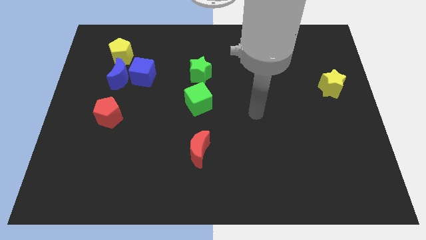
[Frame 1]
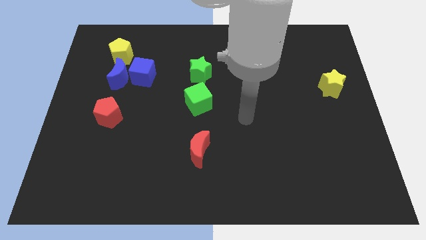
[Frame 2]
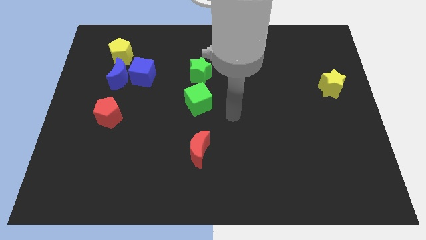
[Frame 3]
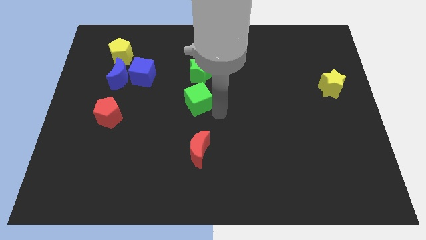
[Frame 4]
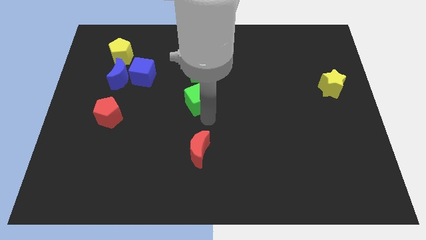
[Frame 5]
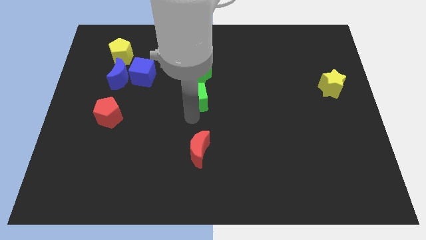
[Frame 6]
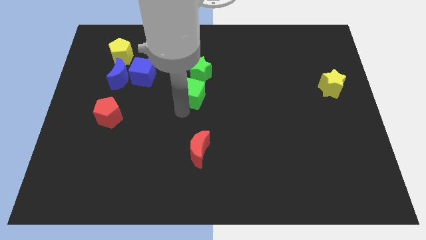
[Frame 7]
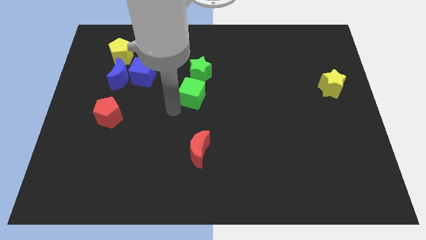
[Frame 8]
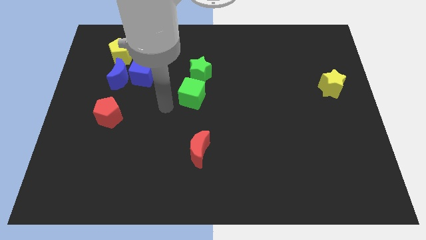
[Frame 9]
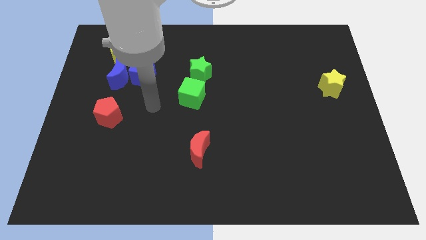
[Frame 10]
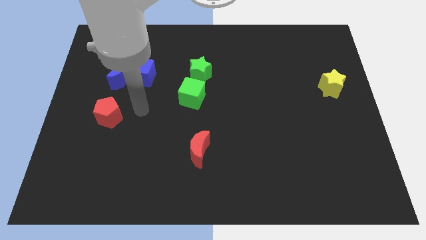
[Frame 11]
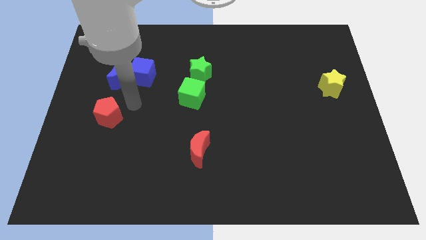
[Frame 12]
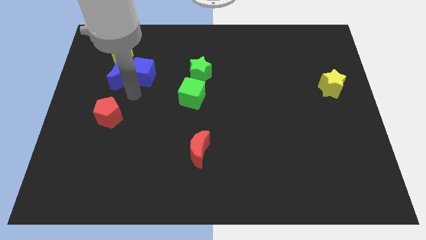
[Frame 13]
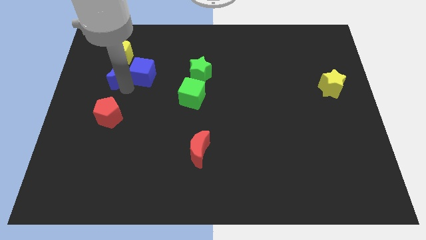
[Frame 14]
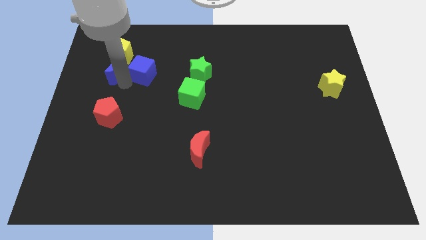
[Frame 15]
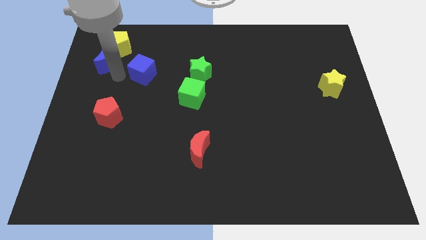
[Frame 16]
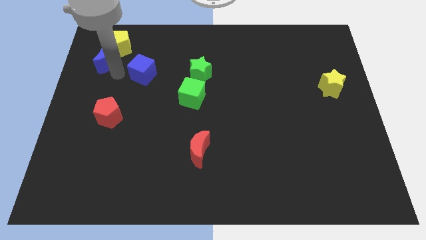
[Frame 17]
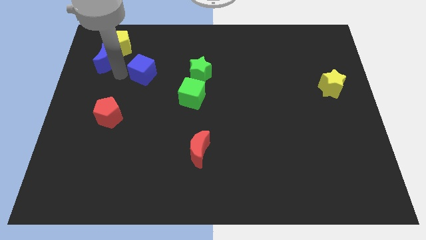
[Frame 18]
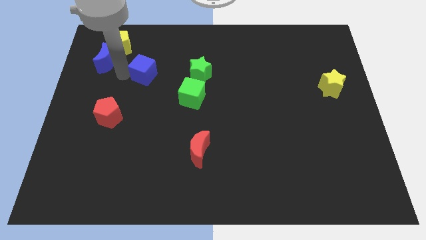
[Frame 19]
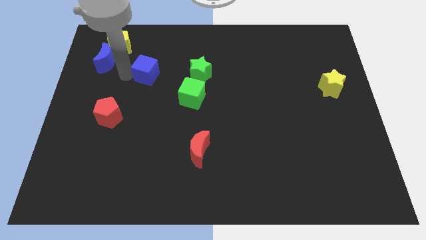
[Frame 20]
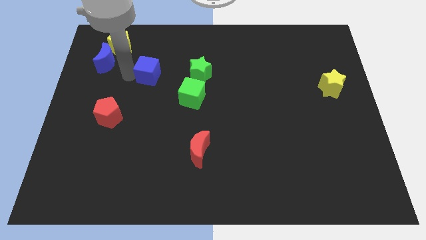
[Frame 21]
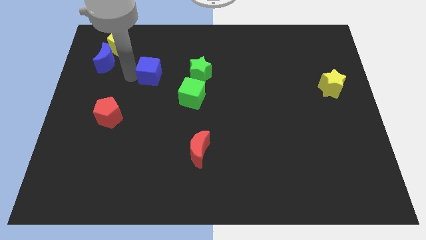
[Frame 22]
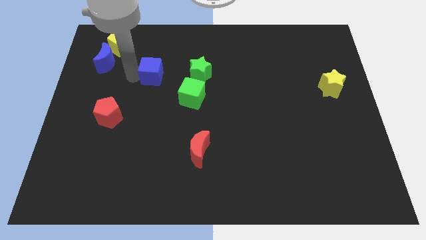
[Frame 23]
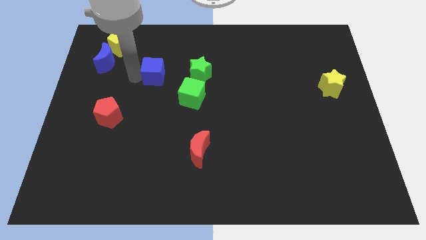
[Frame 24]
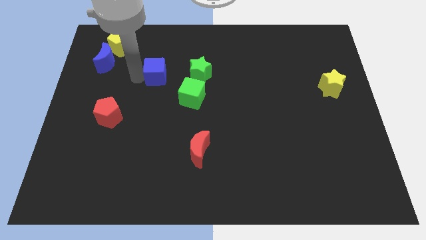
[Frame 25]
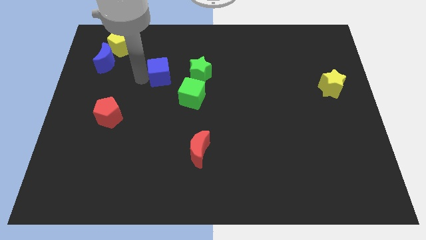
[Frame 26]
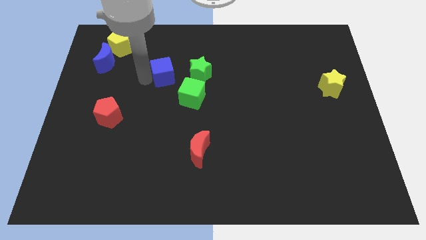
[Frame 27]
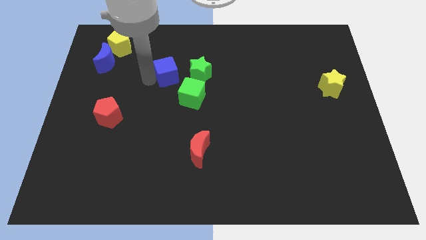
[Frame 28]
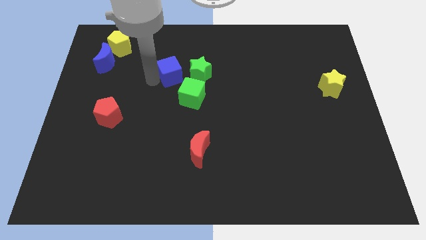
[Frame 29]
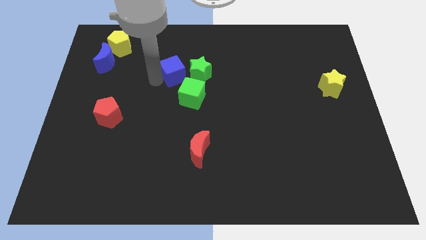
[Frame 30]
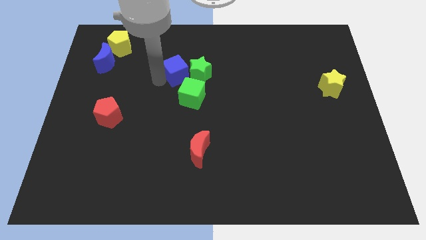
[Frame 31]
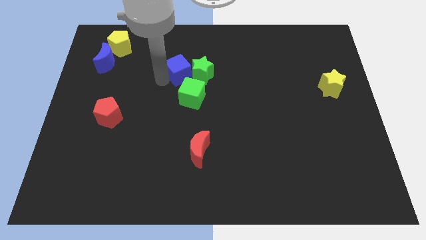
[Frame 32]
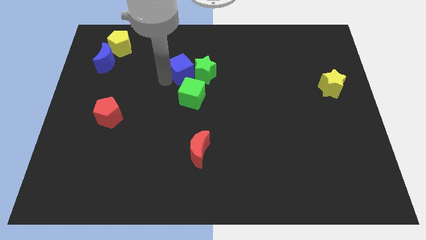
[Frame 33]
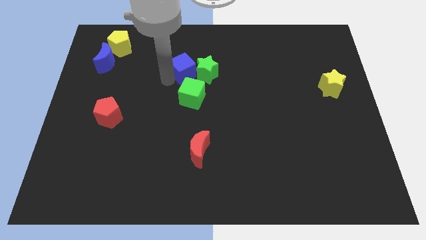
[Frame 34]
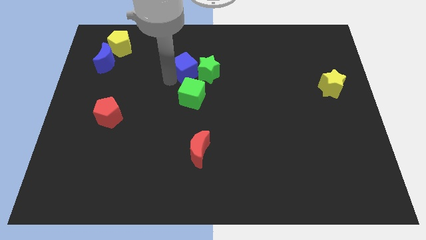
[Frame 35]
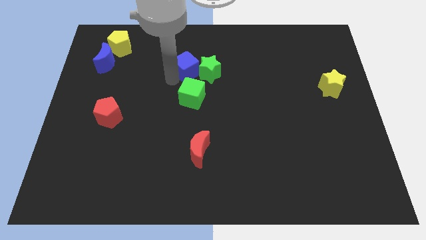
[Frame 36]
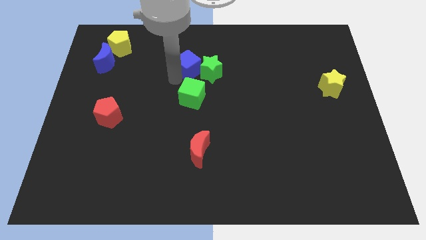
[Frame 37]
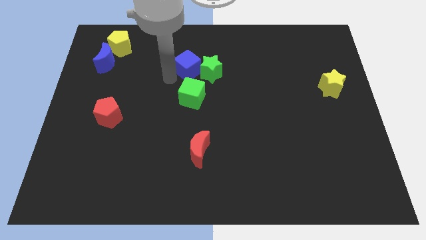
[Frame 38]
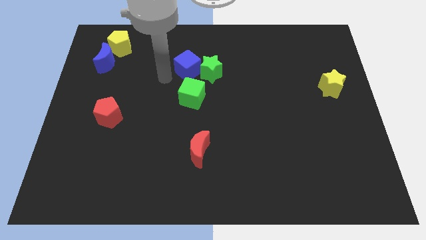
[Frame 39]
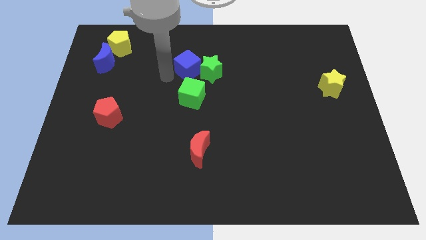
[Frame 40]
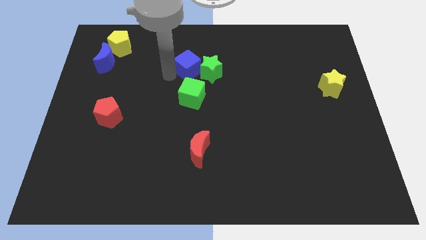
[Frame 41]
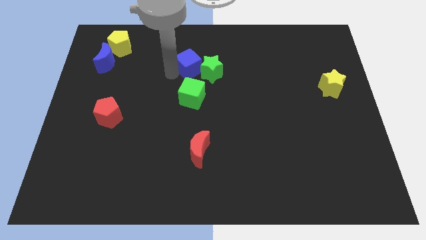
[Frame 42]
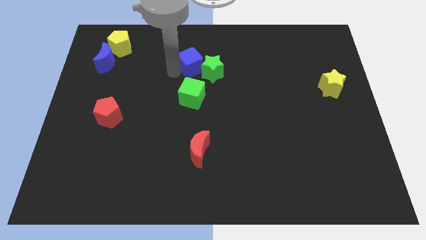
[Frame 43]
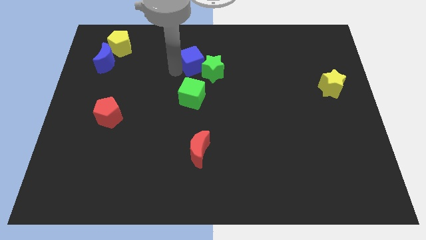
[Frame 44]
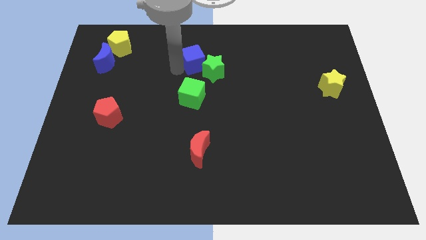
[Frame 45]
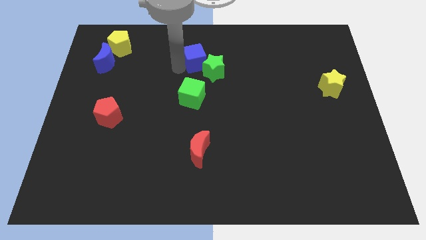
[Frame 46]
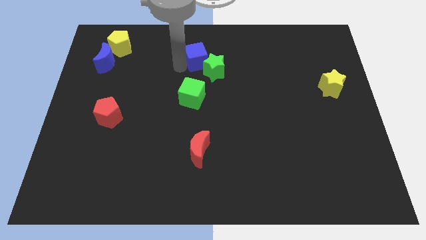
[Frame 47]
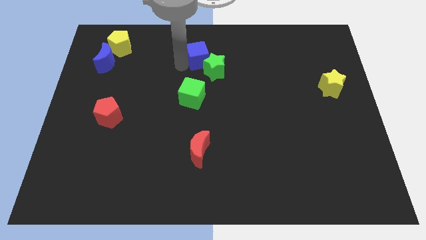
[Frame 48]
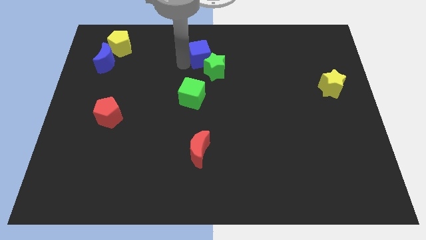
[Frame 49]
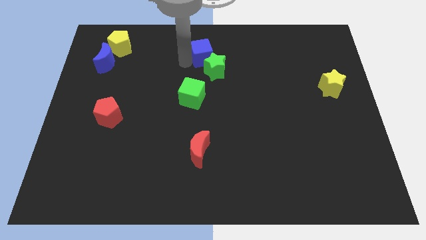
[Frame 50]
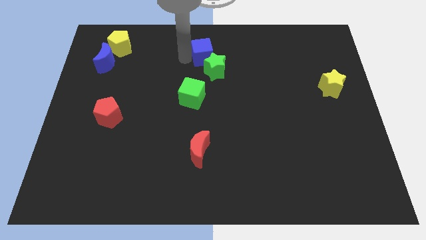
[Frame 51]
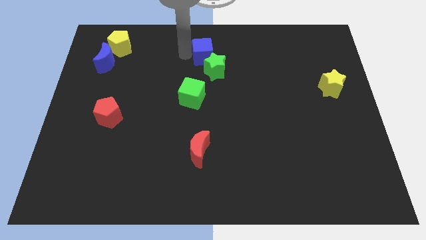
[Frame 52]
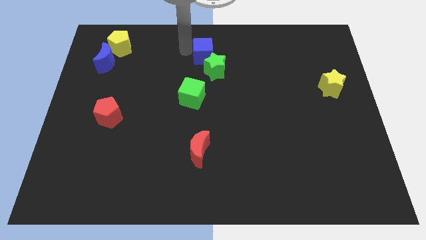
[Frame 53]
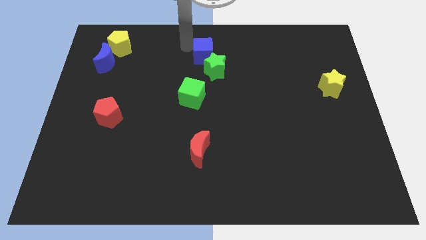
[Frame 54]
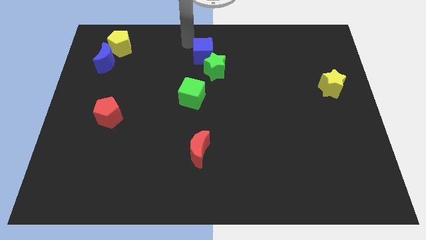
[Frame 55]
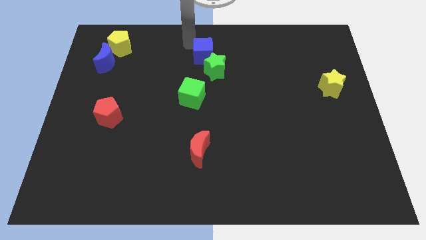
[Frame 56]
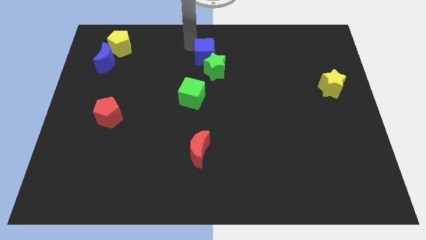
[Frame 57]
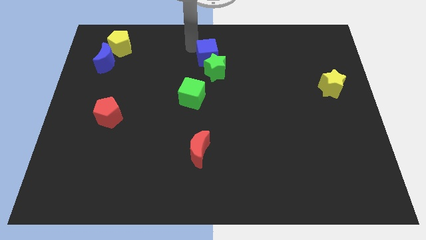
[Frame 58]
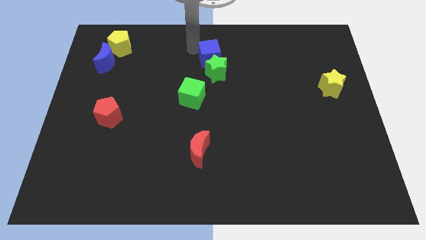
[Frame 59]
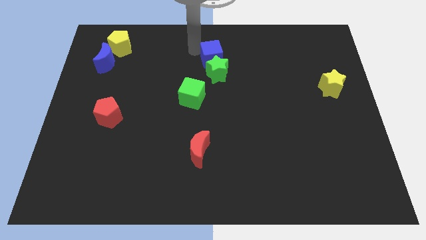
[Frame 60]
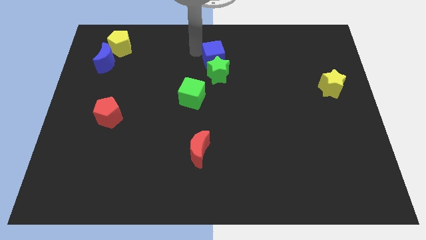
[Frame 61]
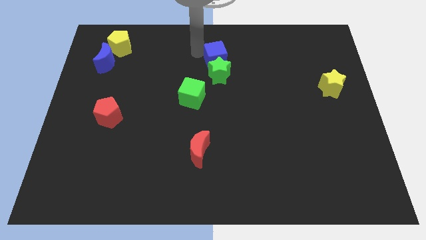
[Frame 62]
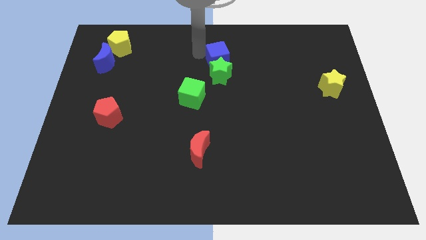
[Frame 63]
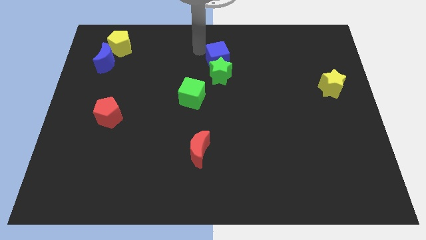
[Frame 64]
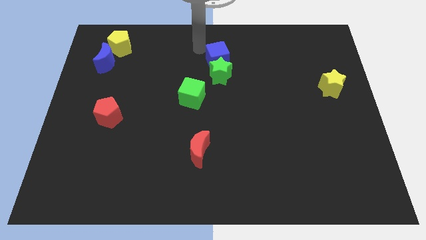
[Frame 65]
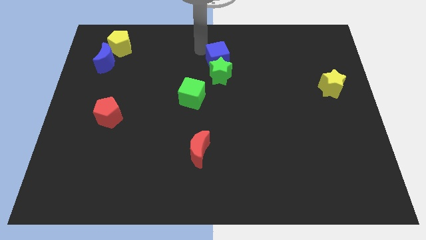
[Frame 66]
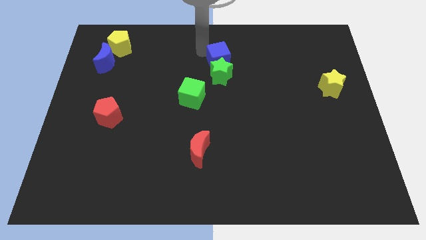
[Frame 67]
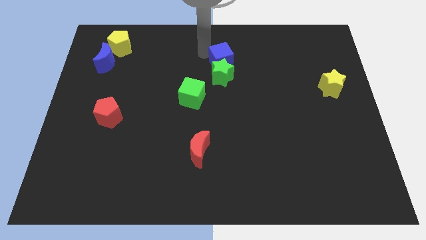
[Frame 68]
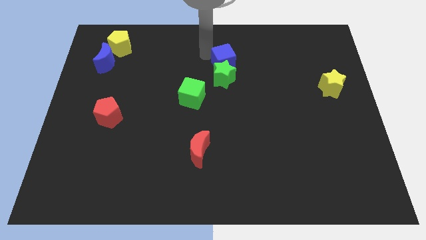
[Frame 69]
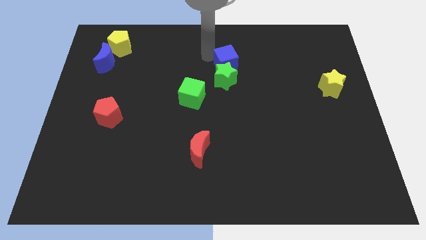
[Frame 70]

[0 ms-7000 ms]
slide the blue cube right

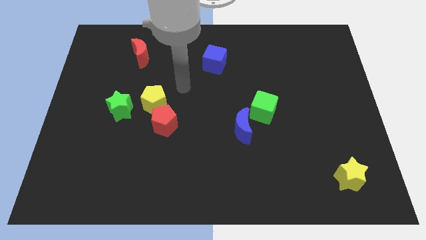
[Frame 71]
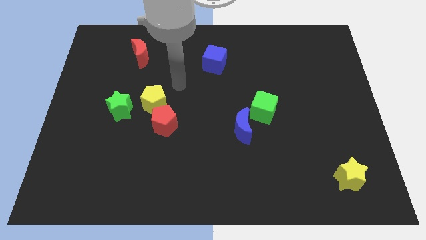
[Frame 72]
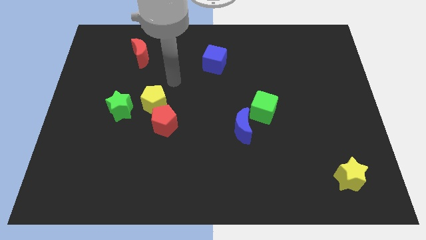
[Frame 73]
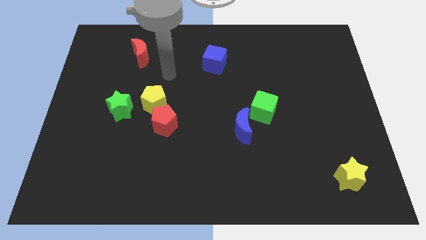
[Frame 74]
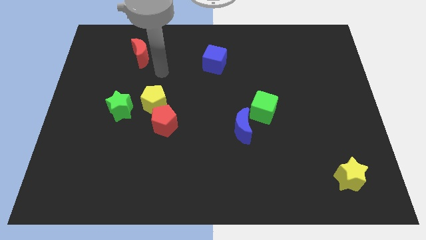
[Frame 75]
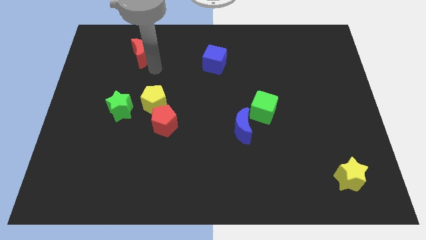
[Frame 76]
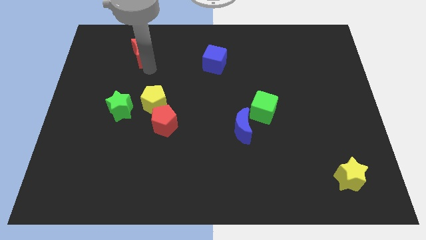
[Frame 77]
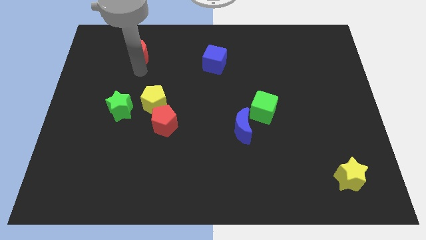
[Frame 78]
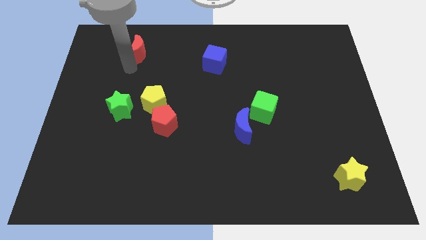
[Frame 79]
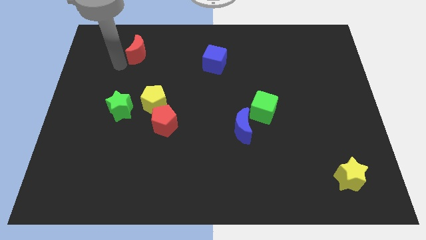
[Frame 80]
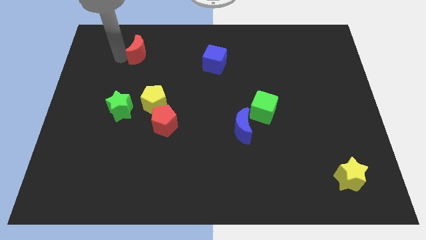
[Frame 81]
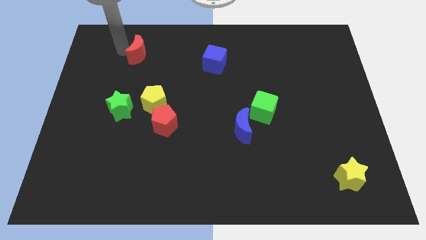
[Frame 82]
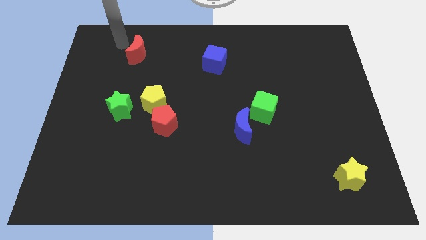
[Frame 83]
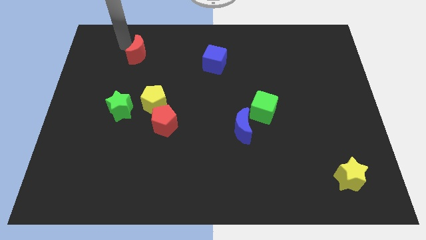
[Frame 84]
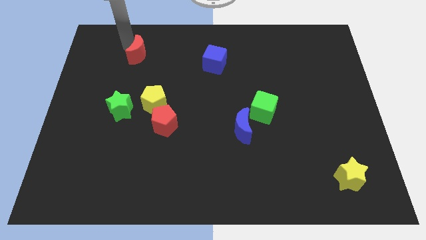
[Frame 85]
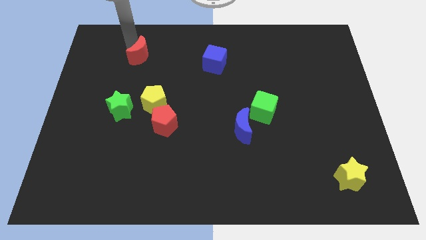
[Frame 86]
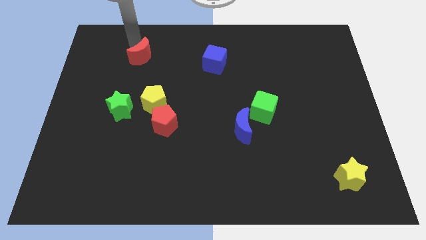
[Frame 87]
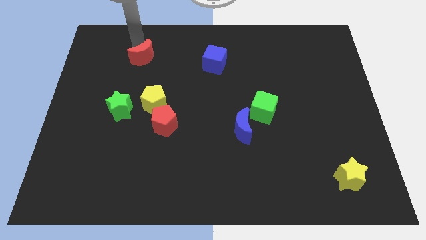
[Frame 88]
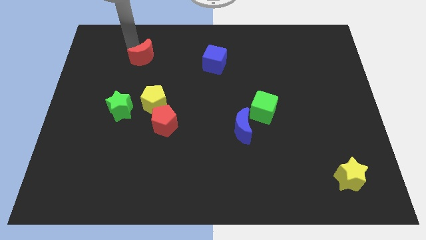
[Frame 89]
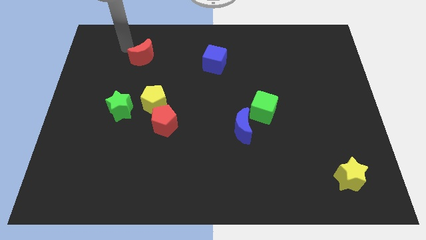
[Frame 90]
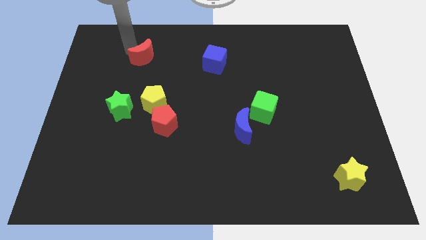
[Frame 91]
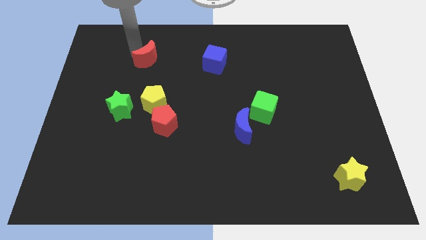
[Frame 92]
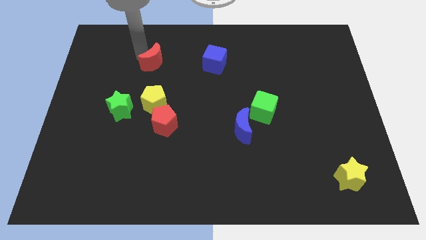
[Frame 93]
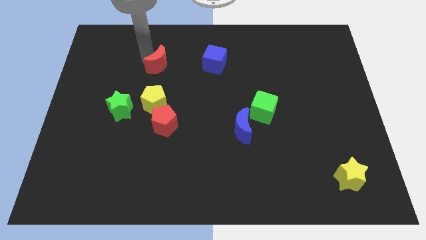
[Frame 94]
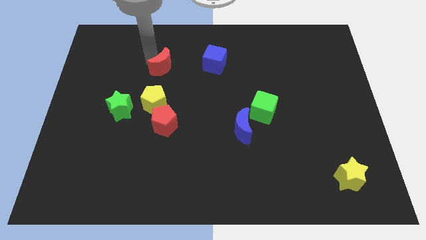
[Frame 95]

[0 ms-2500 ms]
push the red moon a bit downwards and to the right
